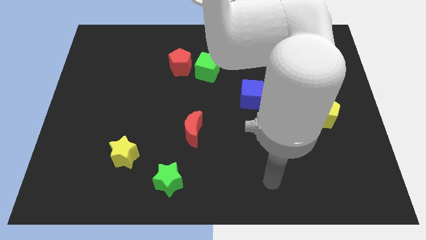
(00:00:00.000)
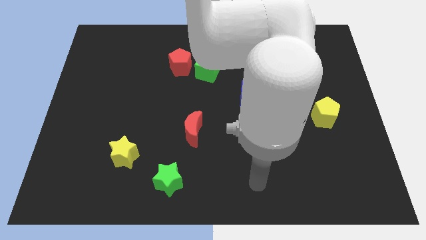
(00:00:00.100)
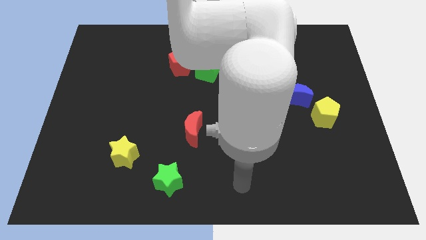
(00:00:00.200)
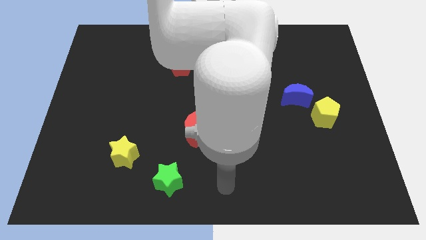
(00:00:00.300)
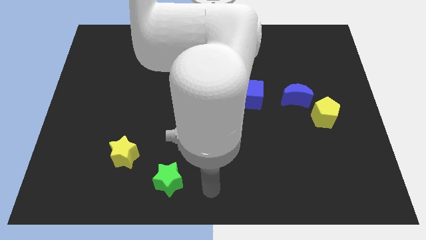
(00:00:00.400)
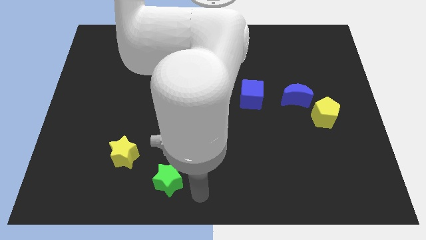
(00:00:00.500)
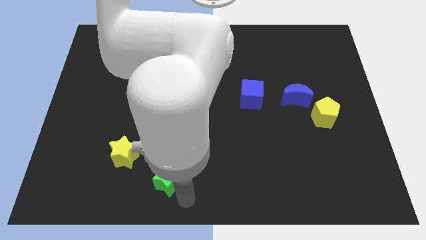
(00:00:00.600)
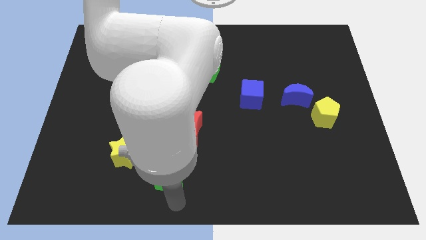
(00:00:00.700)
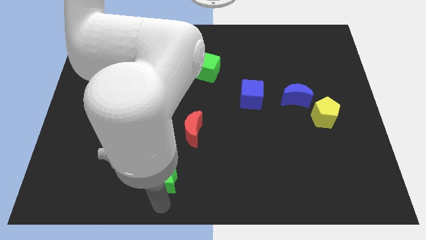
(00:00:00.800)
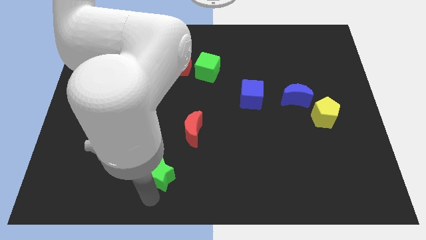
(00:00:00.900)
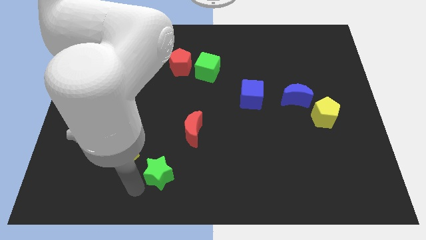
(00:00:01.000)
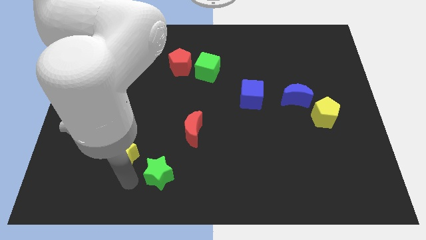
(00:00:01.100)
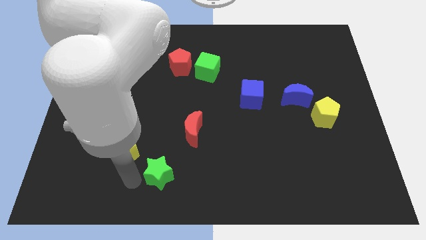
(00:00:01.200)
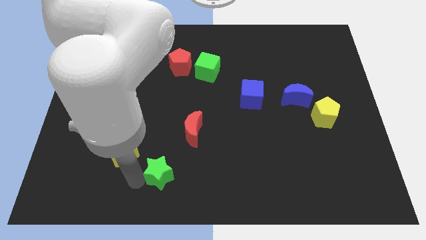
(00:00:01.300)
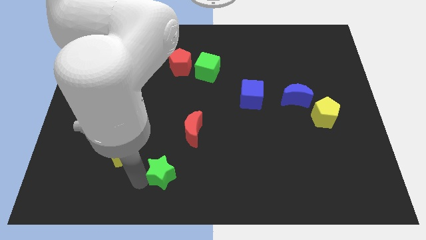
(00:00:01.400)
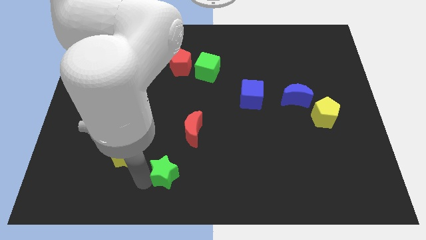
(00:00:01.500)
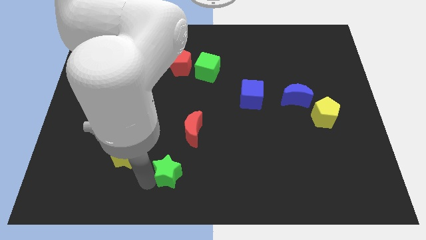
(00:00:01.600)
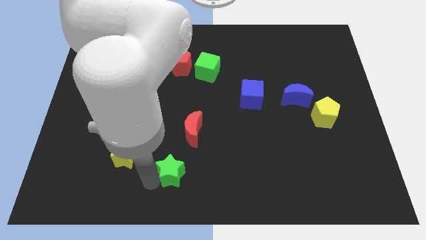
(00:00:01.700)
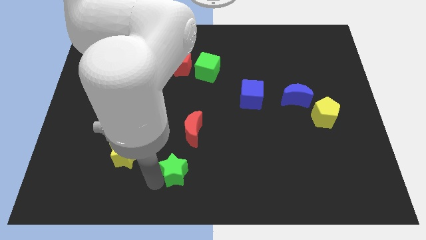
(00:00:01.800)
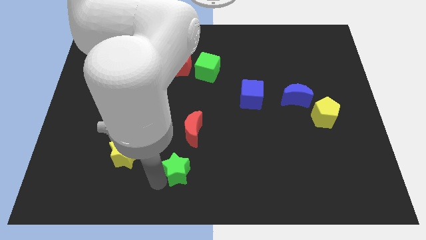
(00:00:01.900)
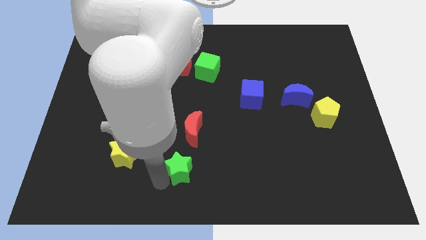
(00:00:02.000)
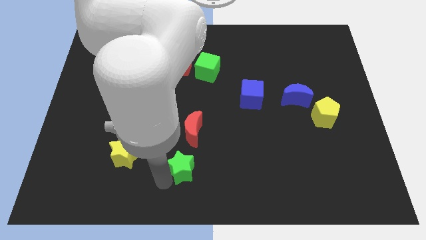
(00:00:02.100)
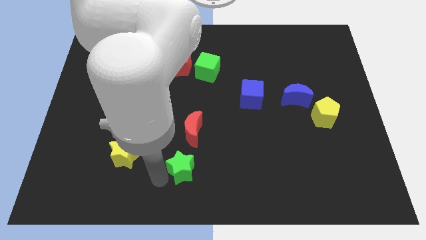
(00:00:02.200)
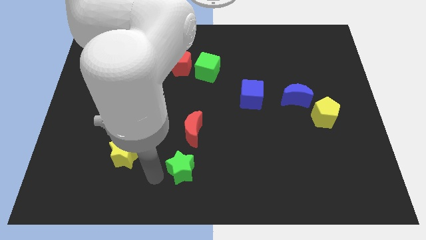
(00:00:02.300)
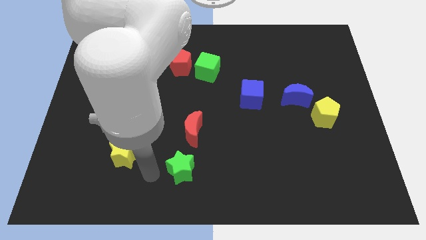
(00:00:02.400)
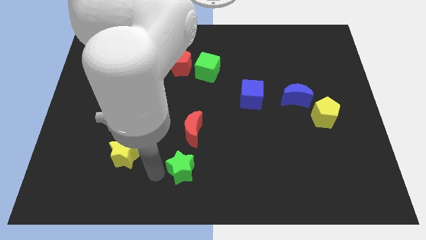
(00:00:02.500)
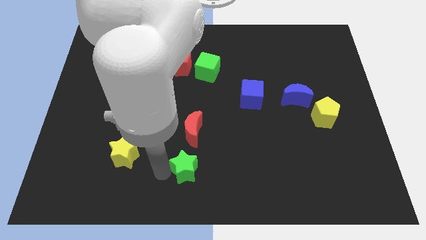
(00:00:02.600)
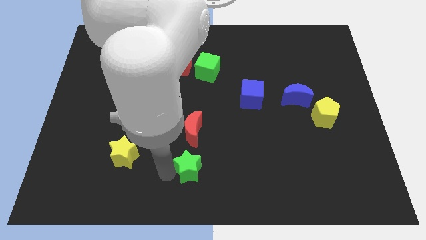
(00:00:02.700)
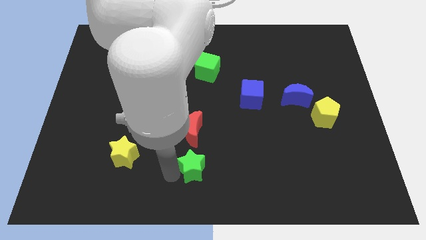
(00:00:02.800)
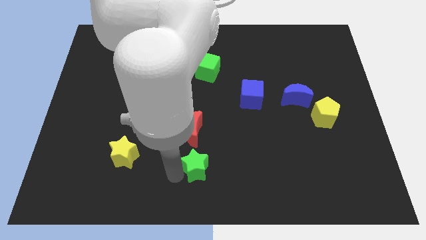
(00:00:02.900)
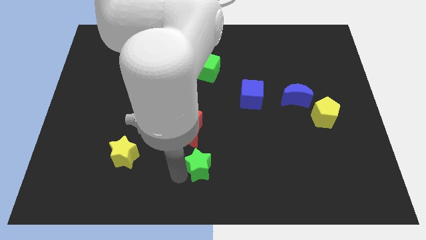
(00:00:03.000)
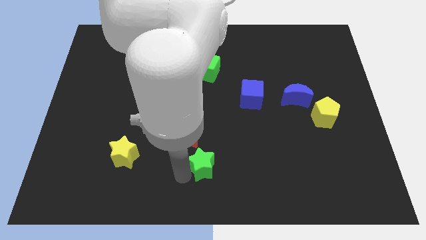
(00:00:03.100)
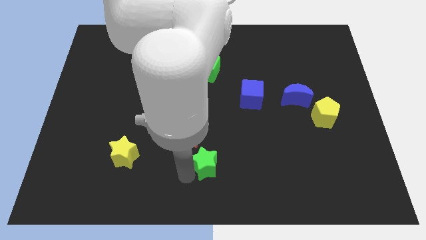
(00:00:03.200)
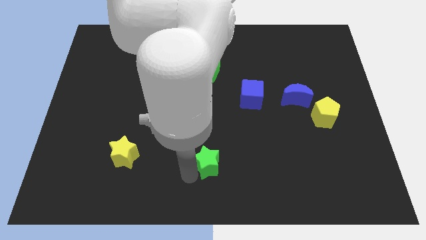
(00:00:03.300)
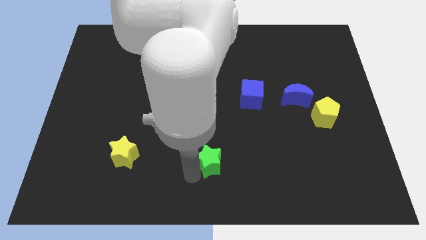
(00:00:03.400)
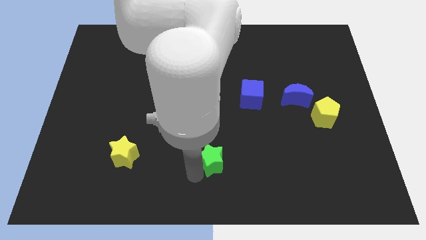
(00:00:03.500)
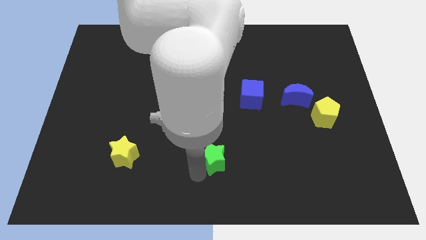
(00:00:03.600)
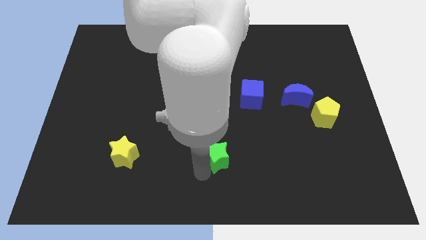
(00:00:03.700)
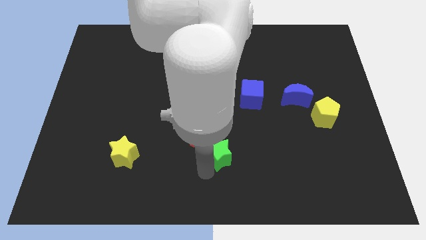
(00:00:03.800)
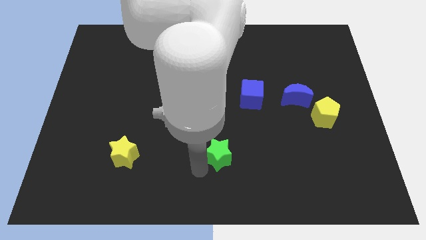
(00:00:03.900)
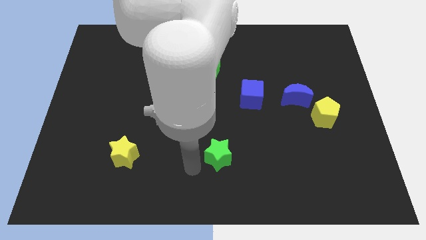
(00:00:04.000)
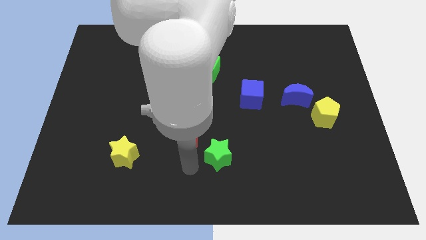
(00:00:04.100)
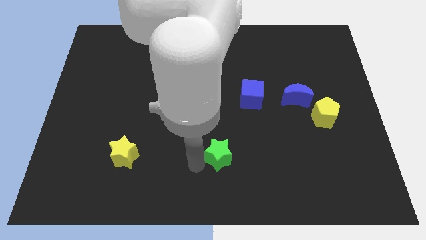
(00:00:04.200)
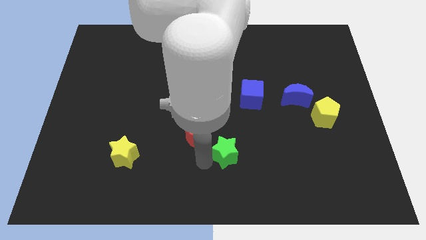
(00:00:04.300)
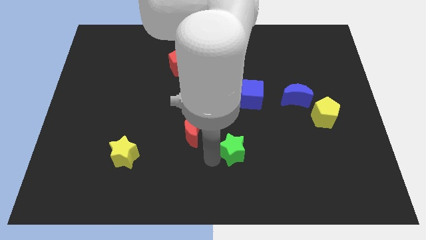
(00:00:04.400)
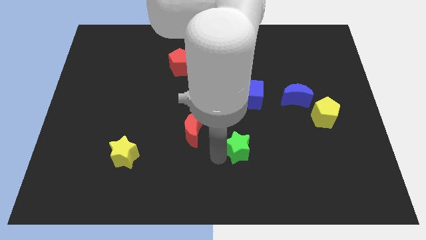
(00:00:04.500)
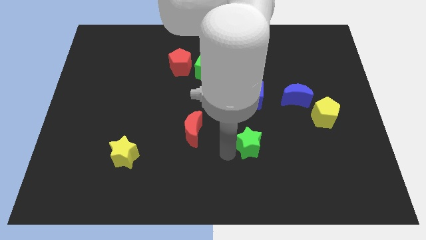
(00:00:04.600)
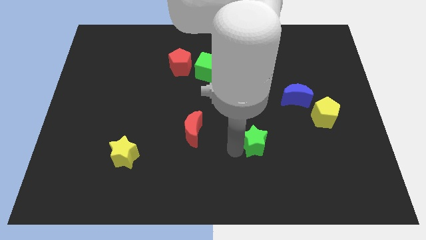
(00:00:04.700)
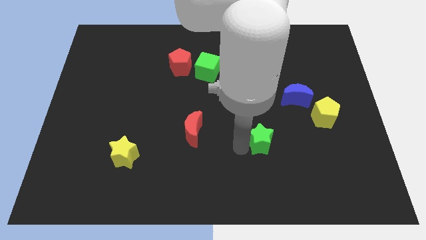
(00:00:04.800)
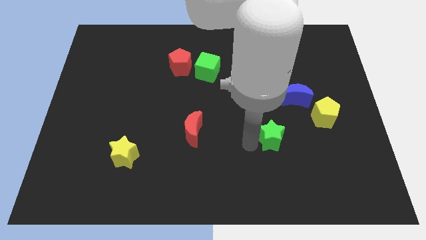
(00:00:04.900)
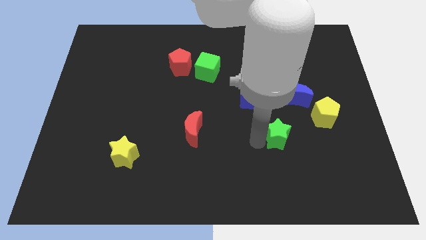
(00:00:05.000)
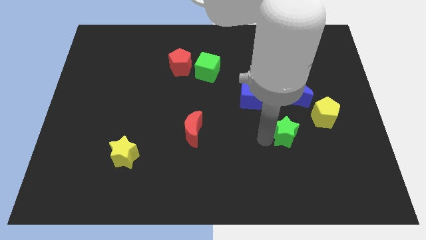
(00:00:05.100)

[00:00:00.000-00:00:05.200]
put the green star to the bottom side of the blue moon

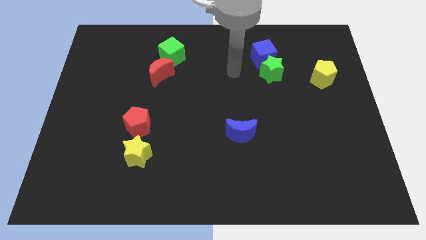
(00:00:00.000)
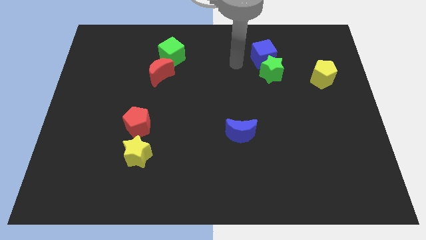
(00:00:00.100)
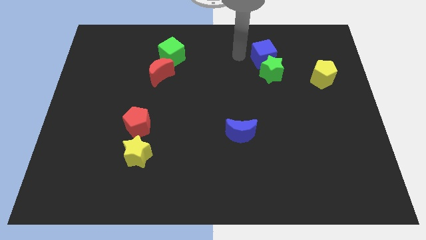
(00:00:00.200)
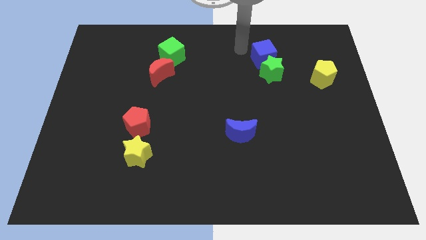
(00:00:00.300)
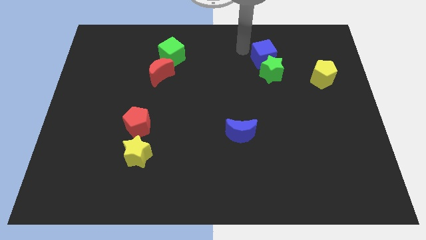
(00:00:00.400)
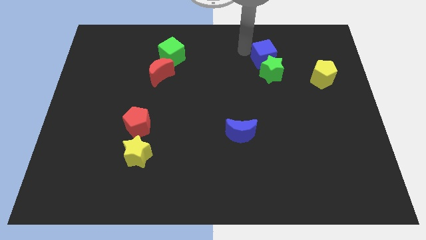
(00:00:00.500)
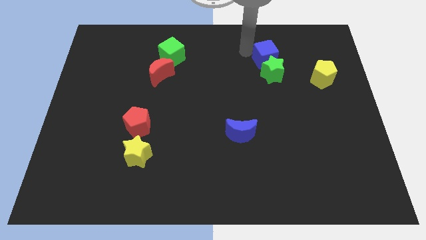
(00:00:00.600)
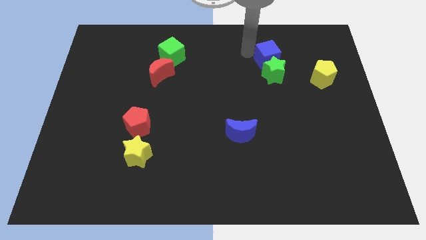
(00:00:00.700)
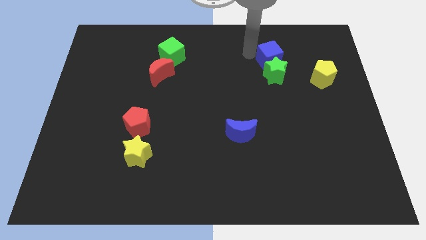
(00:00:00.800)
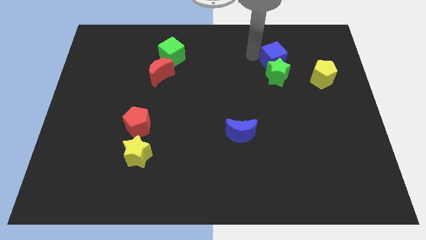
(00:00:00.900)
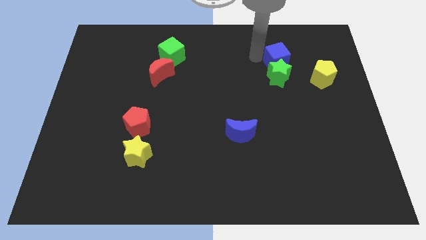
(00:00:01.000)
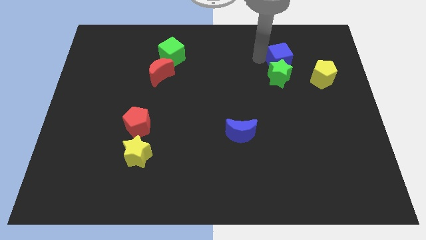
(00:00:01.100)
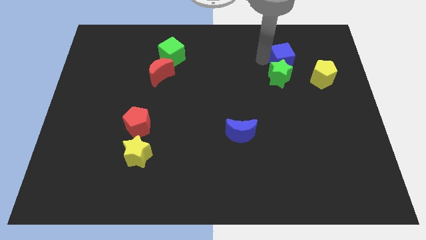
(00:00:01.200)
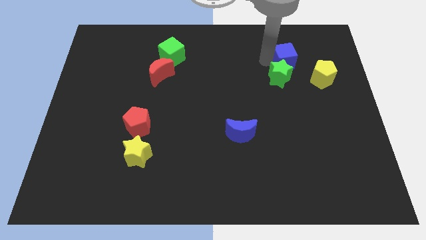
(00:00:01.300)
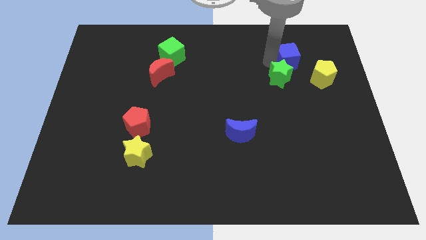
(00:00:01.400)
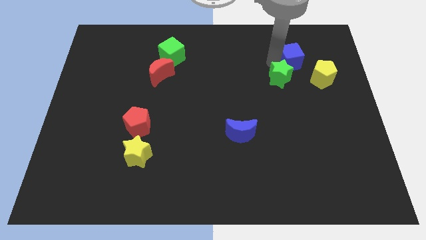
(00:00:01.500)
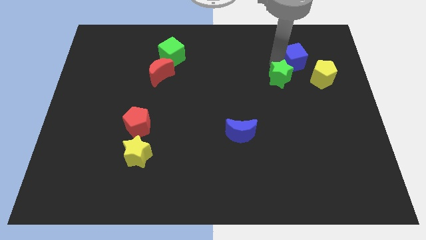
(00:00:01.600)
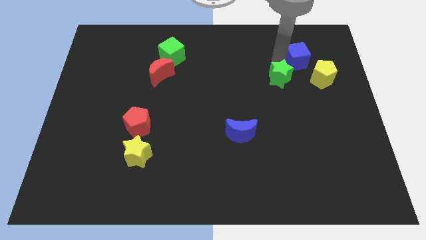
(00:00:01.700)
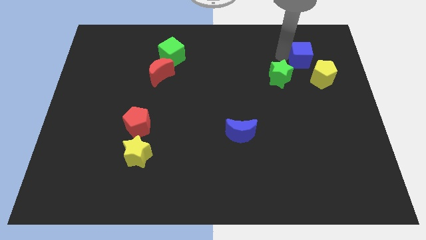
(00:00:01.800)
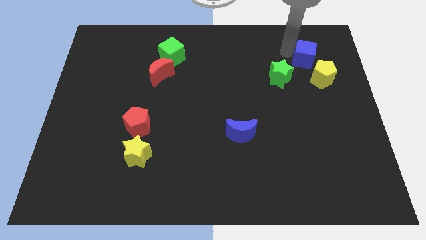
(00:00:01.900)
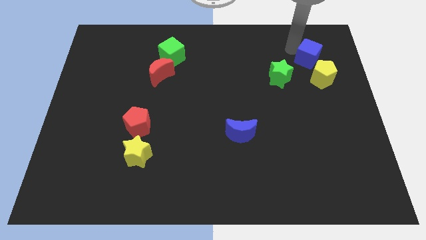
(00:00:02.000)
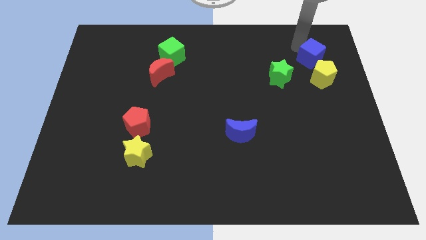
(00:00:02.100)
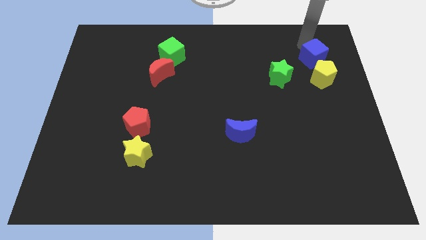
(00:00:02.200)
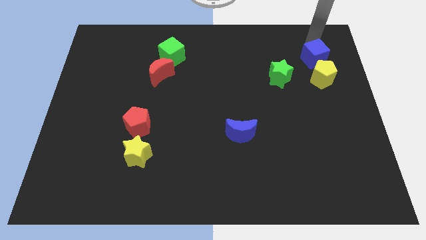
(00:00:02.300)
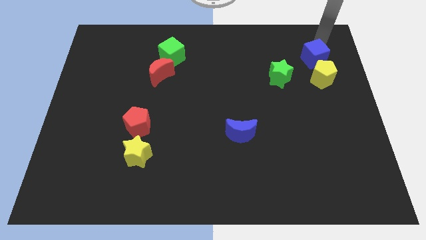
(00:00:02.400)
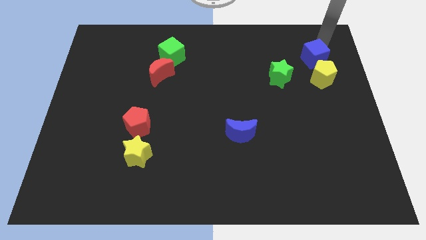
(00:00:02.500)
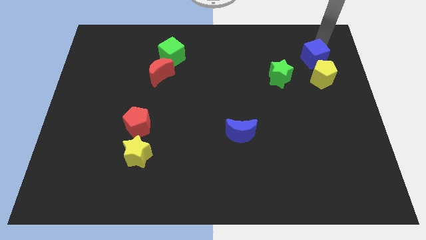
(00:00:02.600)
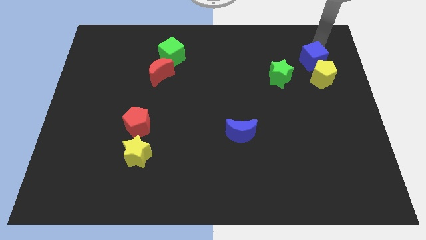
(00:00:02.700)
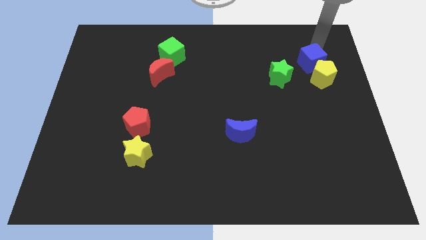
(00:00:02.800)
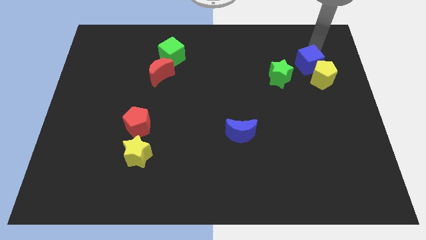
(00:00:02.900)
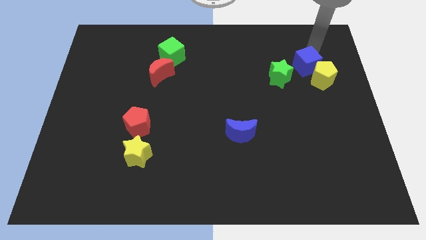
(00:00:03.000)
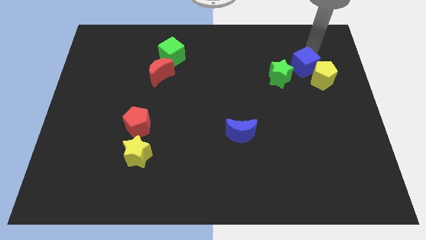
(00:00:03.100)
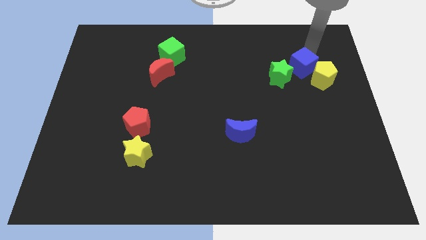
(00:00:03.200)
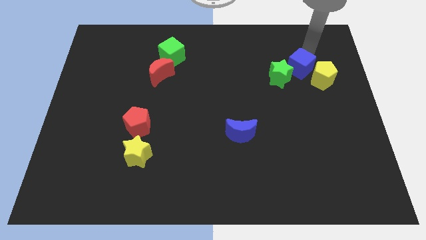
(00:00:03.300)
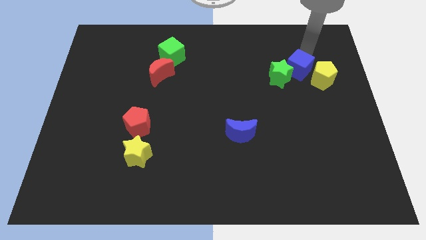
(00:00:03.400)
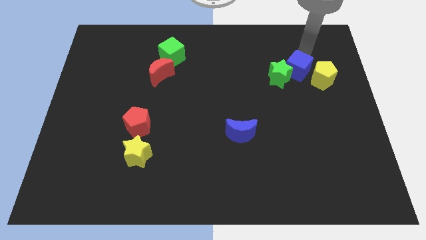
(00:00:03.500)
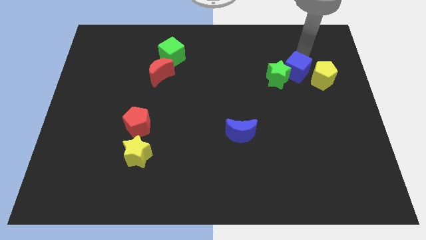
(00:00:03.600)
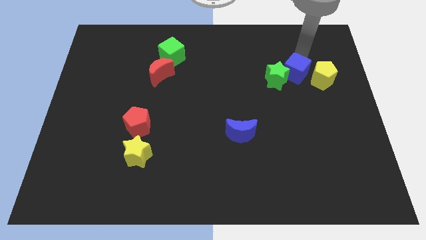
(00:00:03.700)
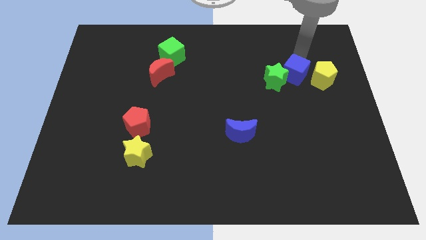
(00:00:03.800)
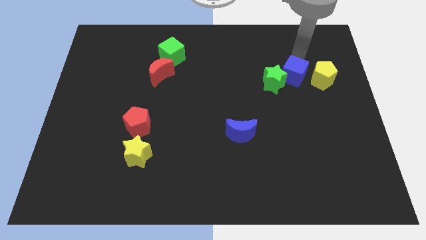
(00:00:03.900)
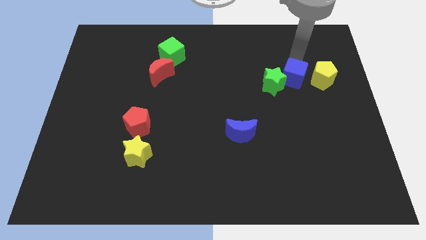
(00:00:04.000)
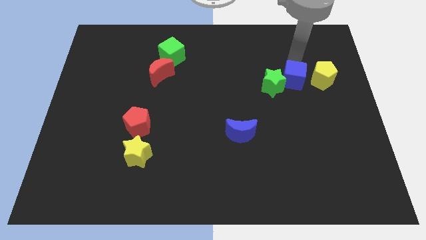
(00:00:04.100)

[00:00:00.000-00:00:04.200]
put the blue cube diagonally down and to the left of the yellow pentagon
